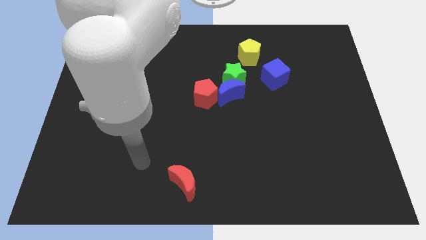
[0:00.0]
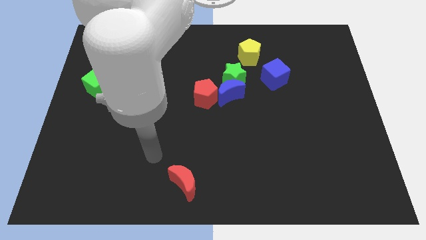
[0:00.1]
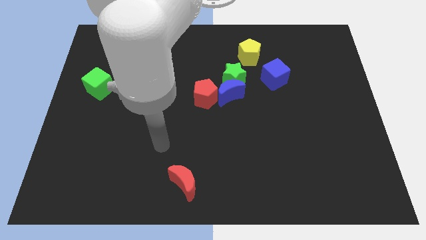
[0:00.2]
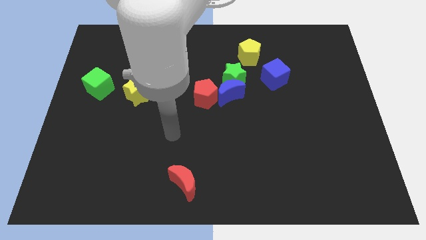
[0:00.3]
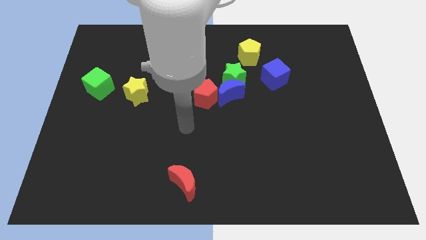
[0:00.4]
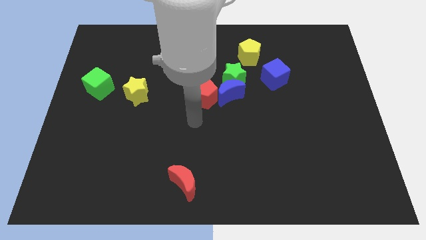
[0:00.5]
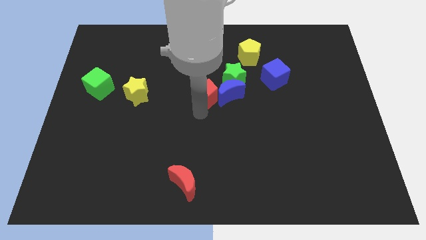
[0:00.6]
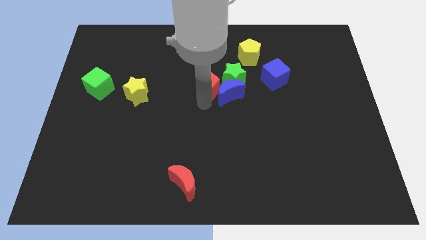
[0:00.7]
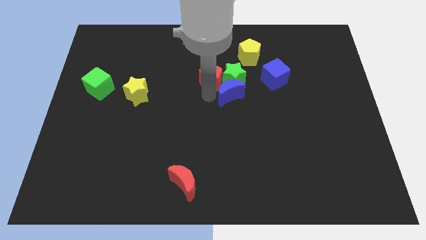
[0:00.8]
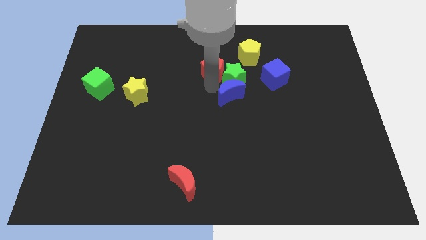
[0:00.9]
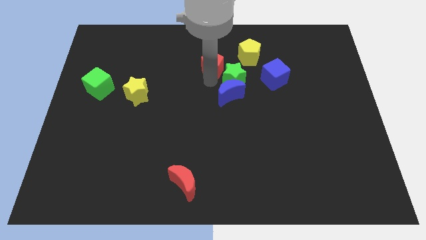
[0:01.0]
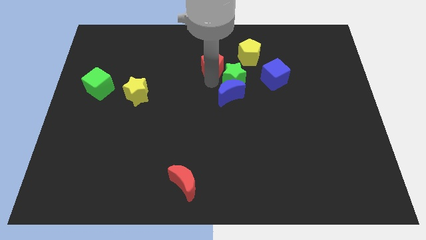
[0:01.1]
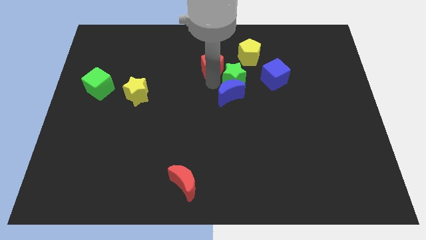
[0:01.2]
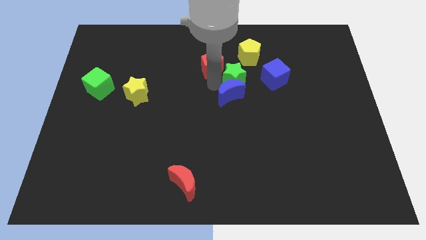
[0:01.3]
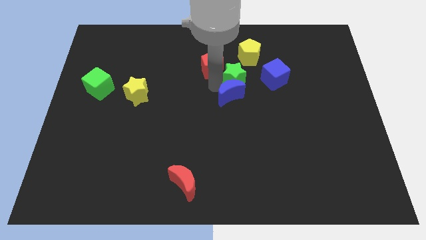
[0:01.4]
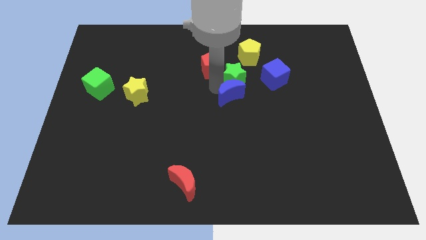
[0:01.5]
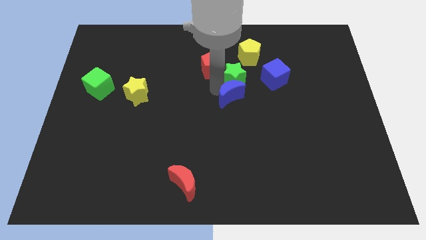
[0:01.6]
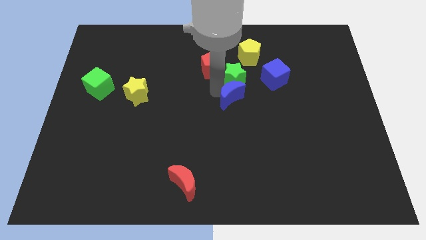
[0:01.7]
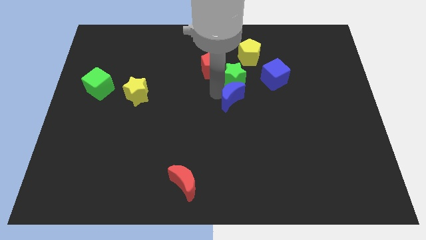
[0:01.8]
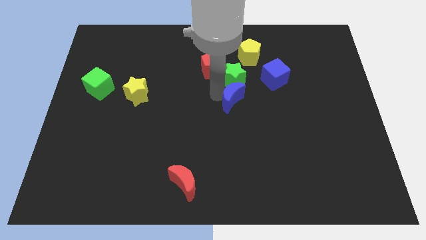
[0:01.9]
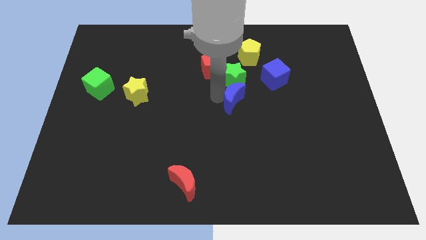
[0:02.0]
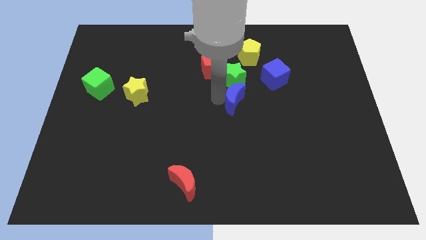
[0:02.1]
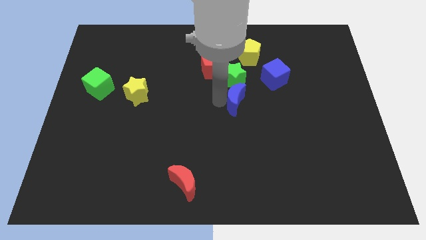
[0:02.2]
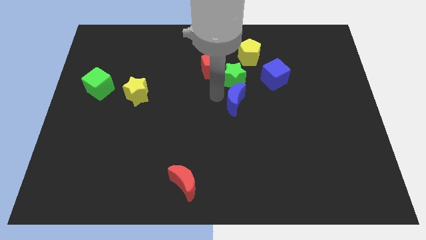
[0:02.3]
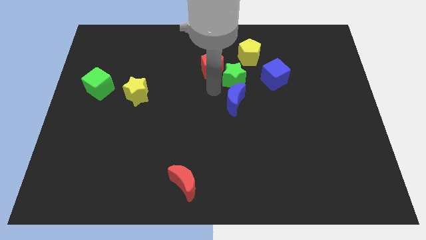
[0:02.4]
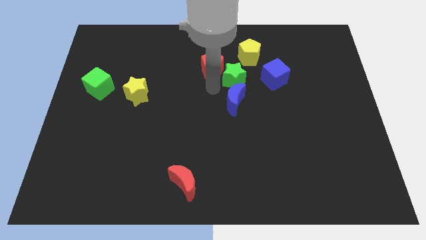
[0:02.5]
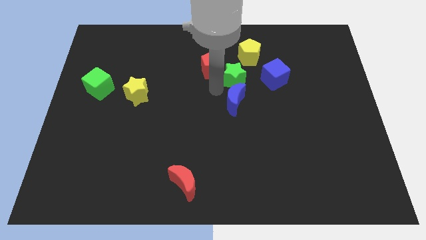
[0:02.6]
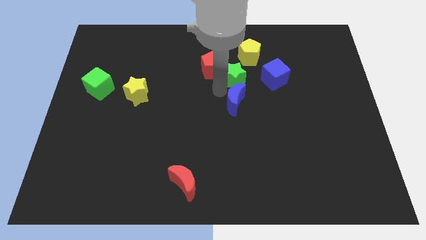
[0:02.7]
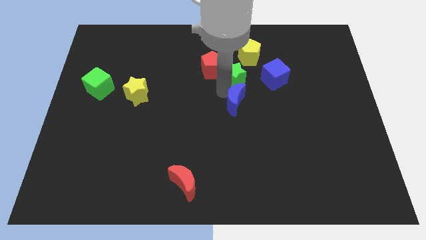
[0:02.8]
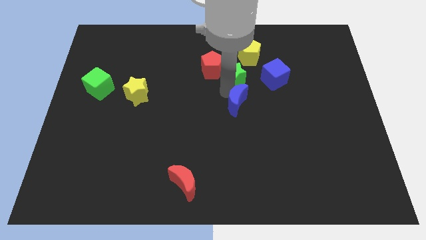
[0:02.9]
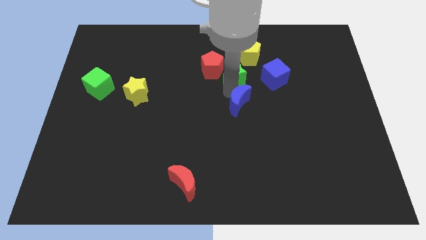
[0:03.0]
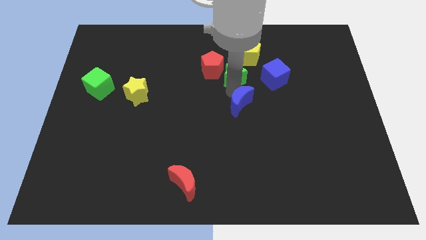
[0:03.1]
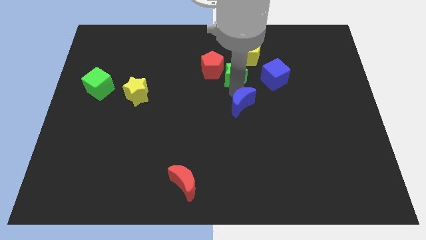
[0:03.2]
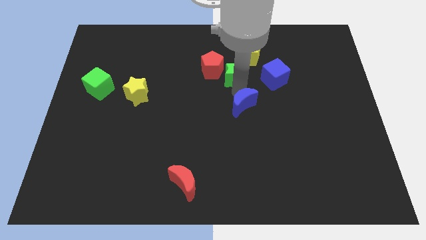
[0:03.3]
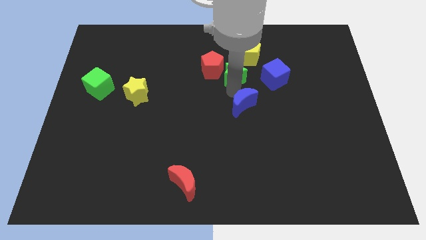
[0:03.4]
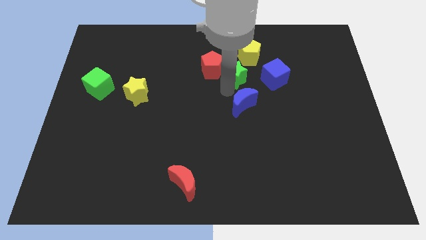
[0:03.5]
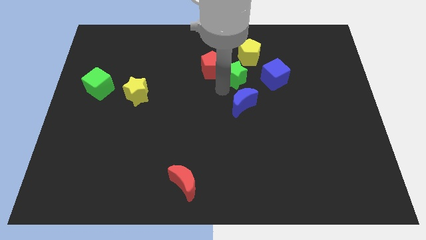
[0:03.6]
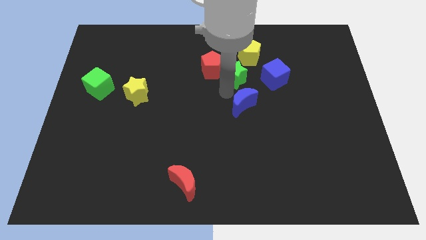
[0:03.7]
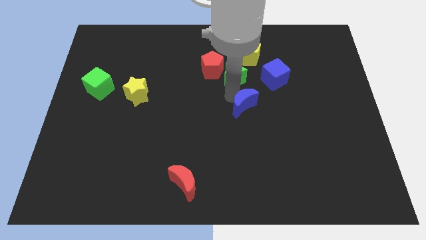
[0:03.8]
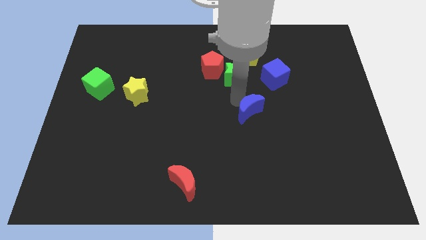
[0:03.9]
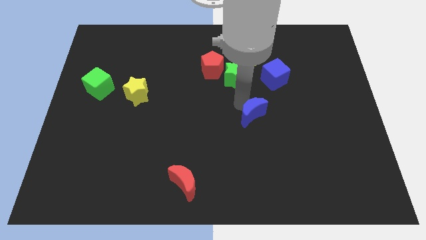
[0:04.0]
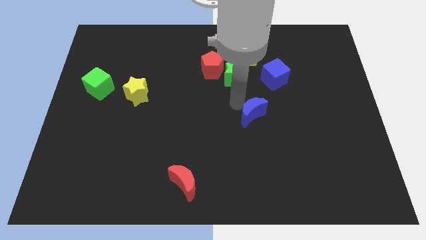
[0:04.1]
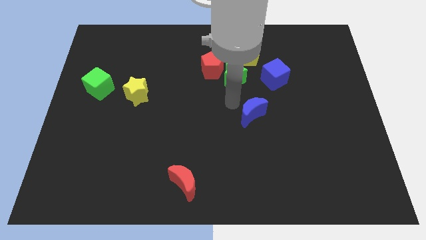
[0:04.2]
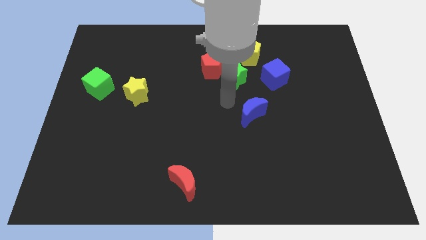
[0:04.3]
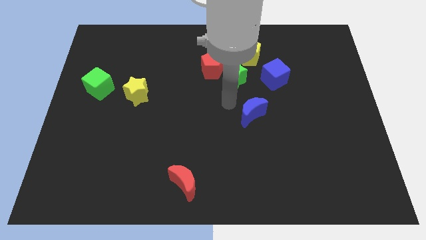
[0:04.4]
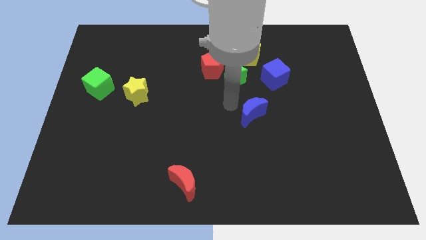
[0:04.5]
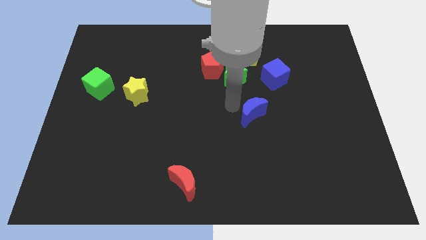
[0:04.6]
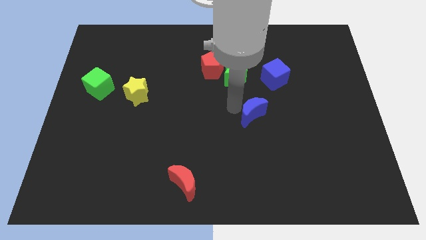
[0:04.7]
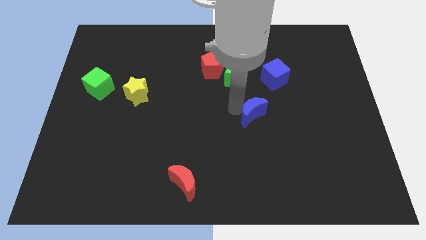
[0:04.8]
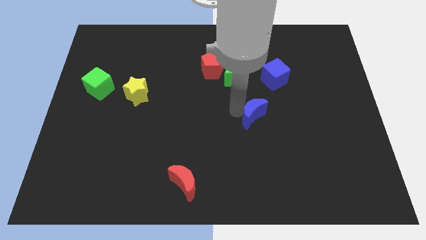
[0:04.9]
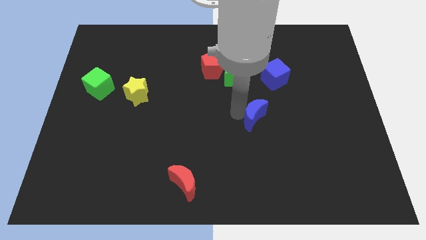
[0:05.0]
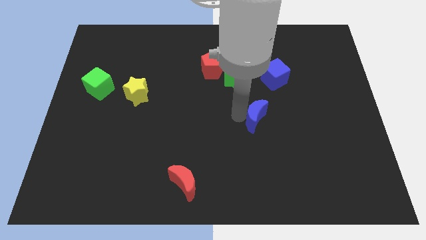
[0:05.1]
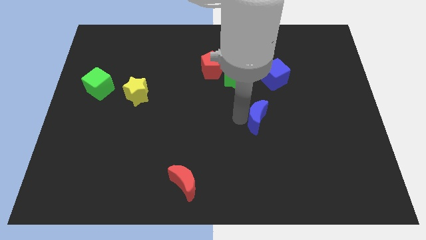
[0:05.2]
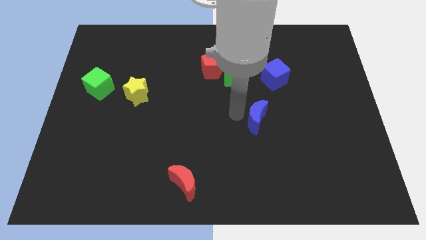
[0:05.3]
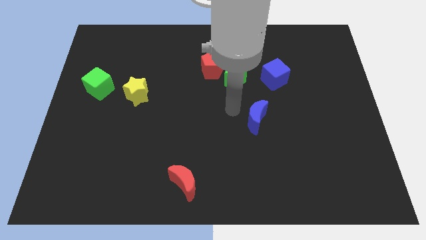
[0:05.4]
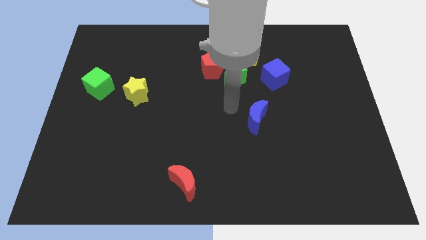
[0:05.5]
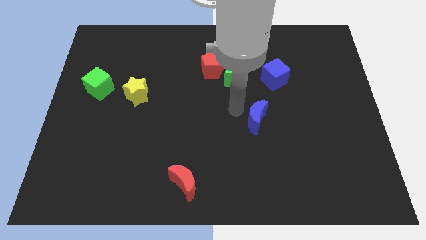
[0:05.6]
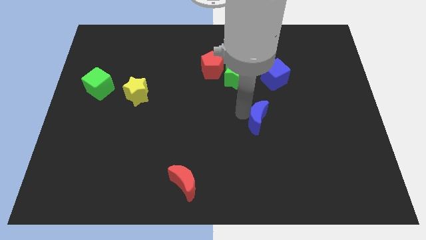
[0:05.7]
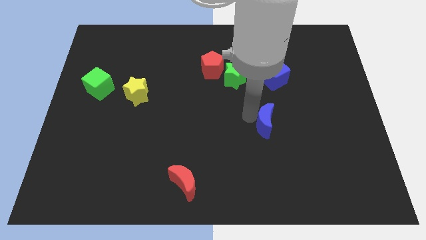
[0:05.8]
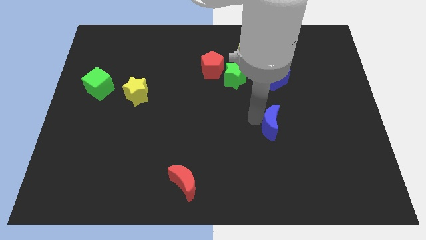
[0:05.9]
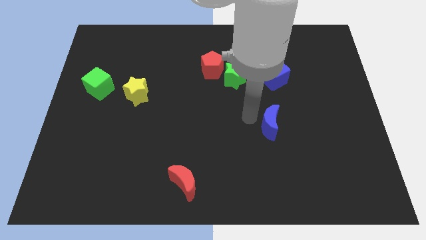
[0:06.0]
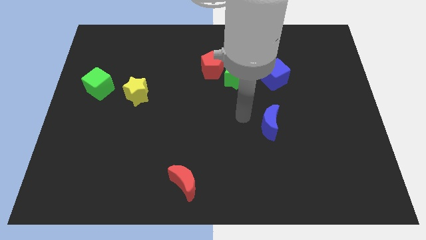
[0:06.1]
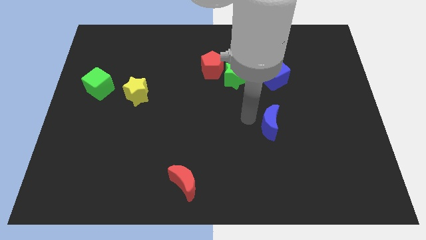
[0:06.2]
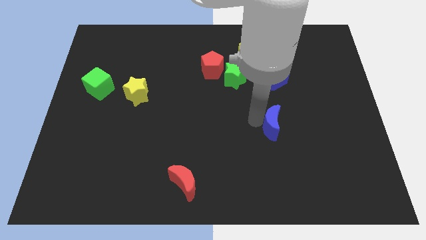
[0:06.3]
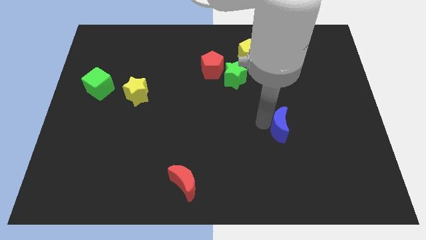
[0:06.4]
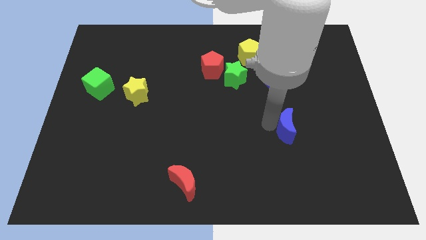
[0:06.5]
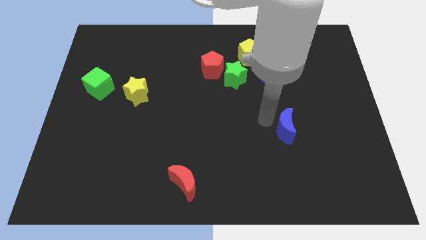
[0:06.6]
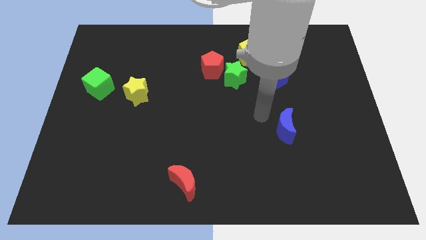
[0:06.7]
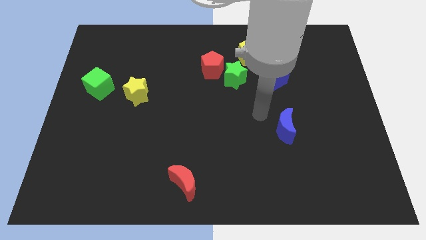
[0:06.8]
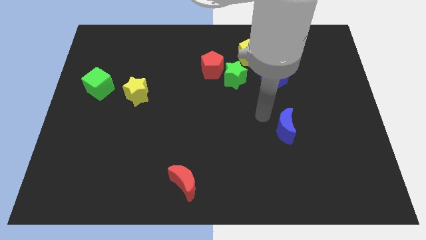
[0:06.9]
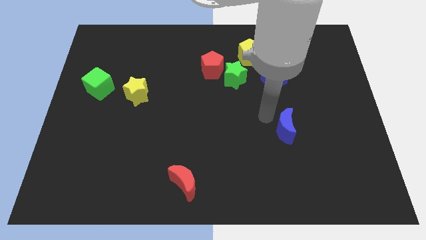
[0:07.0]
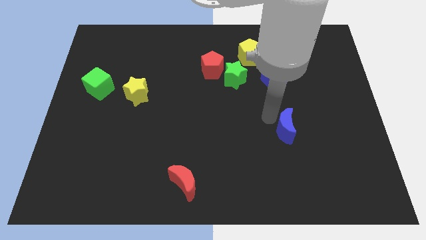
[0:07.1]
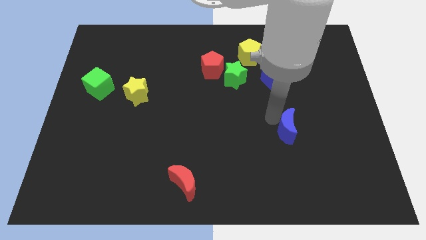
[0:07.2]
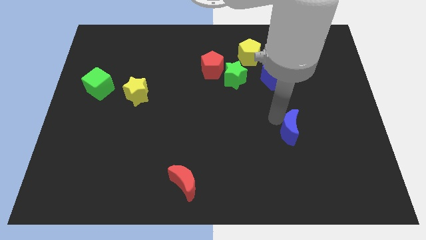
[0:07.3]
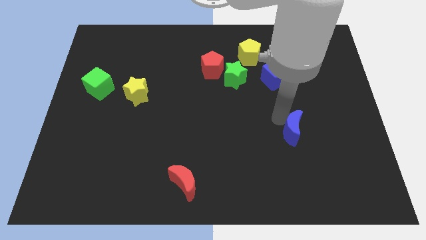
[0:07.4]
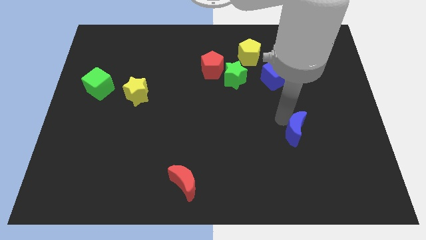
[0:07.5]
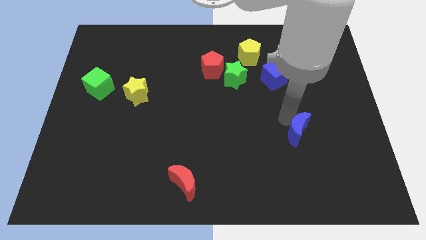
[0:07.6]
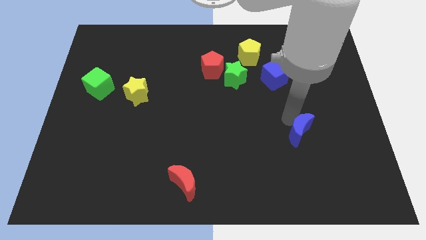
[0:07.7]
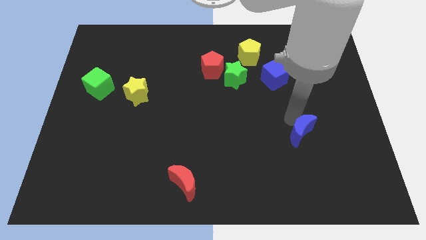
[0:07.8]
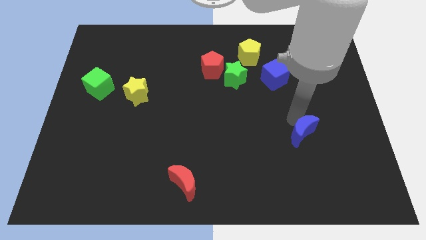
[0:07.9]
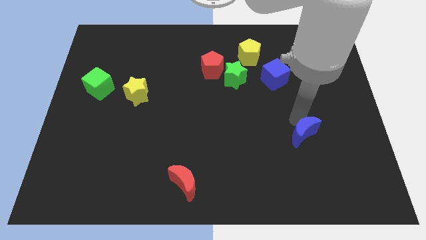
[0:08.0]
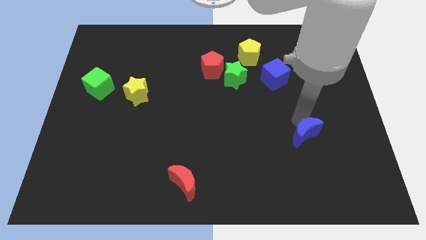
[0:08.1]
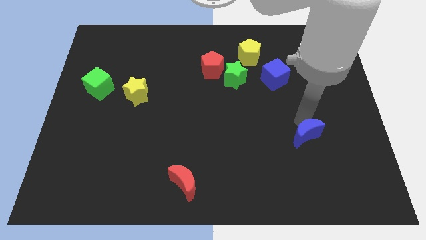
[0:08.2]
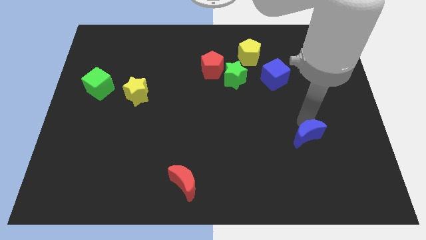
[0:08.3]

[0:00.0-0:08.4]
push the blue moon down and to the right
